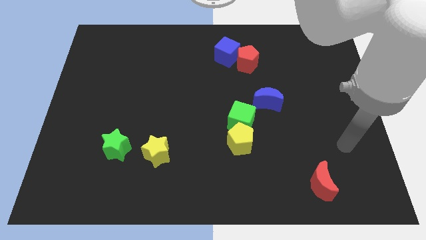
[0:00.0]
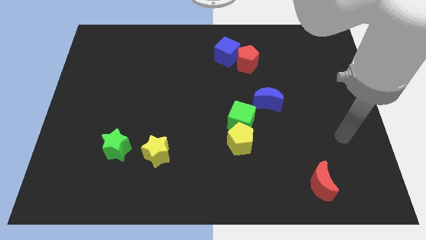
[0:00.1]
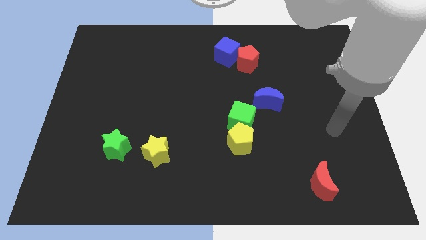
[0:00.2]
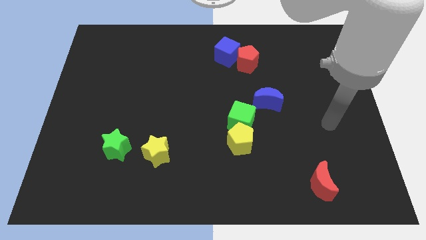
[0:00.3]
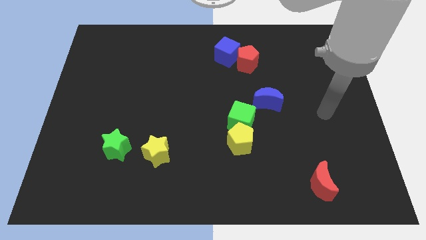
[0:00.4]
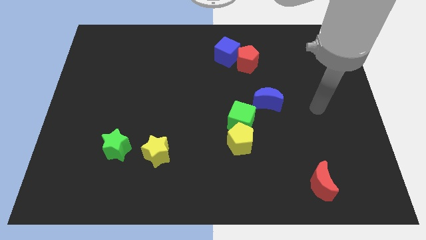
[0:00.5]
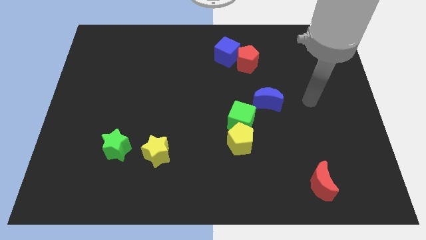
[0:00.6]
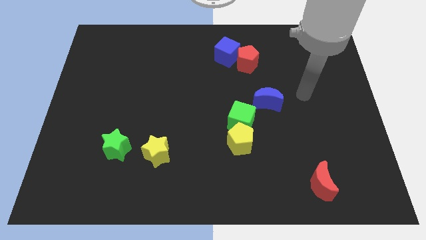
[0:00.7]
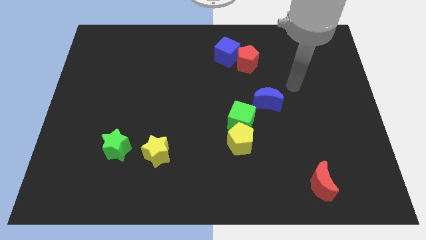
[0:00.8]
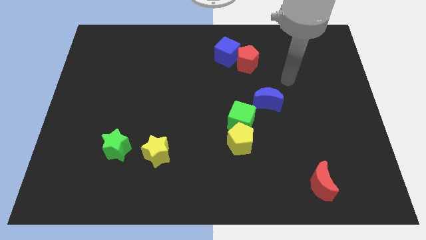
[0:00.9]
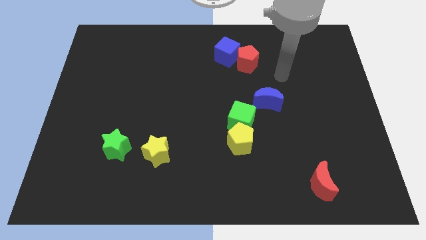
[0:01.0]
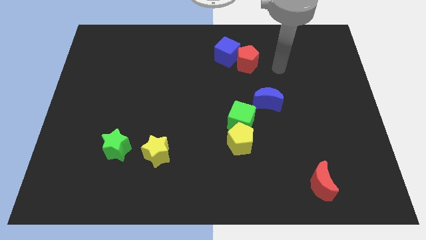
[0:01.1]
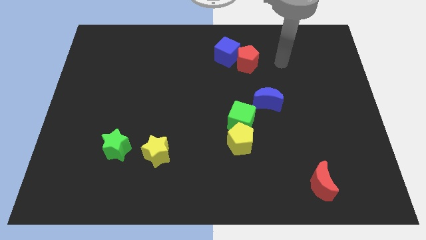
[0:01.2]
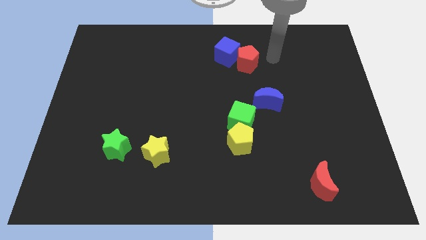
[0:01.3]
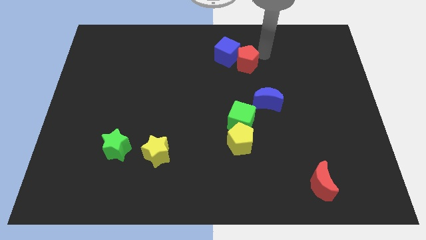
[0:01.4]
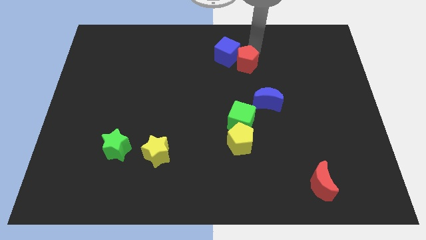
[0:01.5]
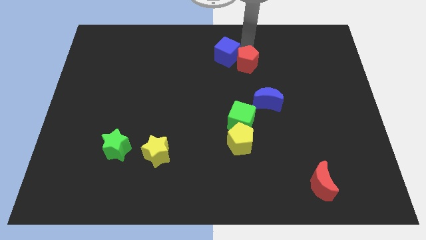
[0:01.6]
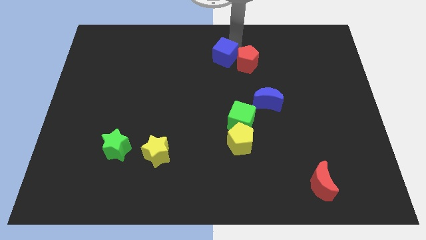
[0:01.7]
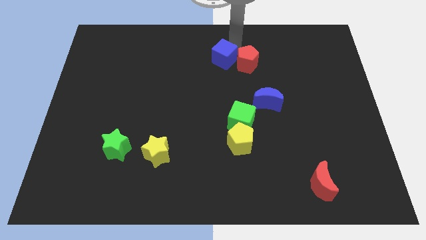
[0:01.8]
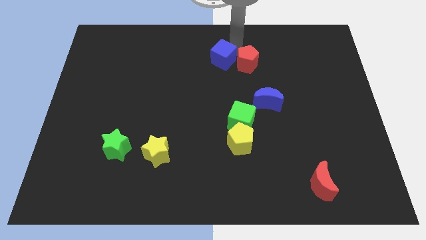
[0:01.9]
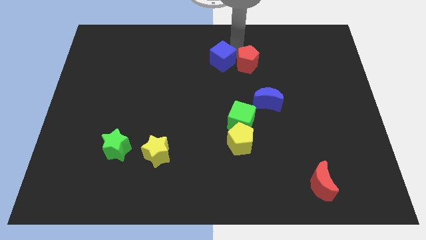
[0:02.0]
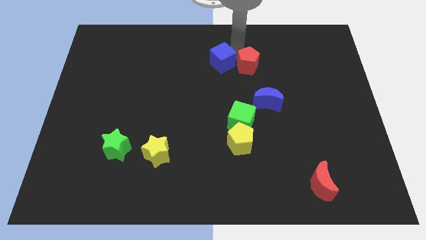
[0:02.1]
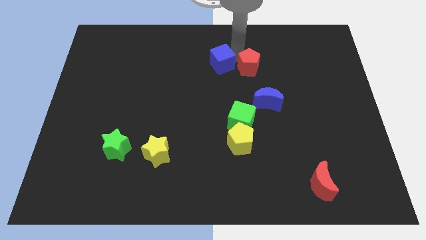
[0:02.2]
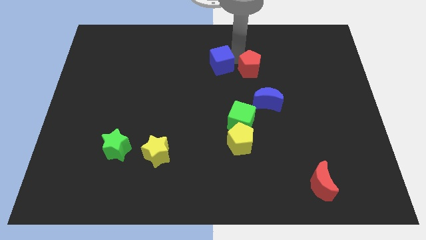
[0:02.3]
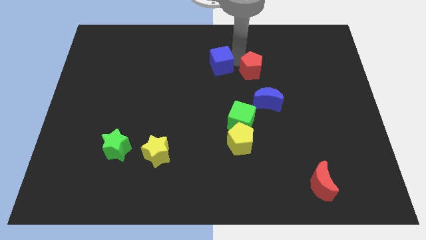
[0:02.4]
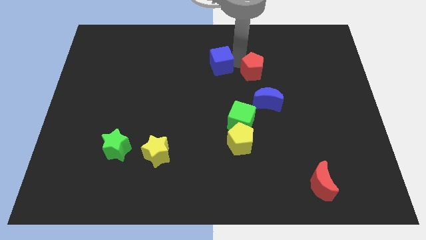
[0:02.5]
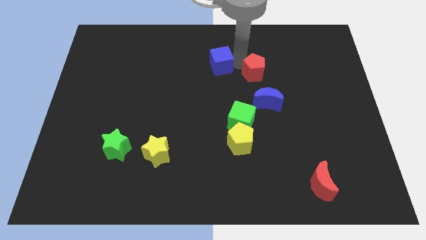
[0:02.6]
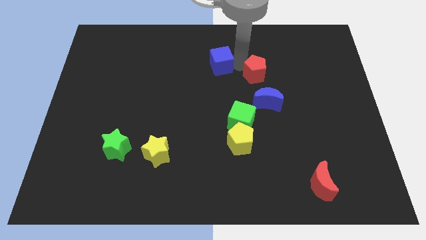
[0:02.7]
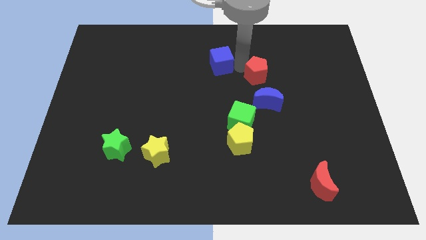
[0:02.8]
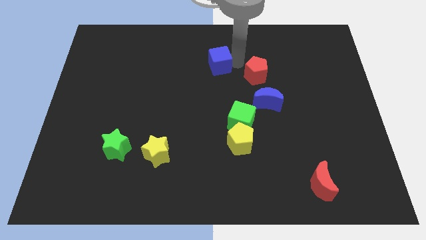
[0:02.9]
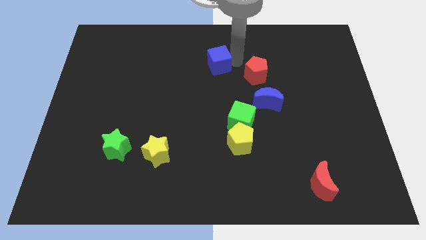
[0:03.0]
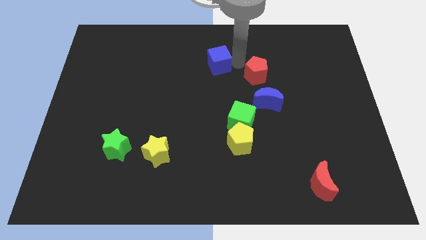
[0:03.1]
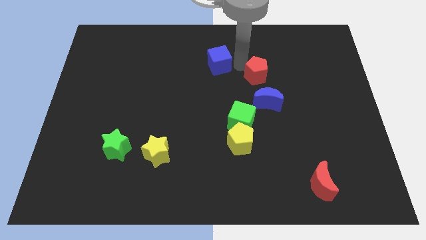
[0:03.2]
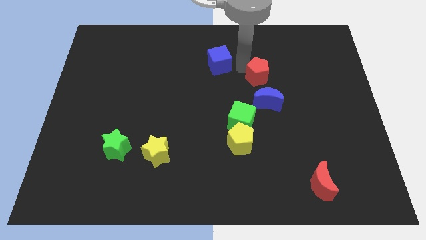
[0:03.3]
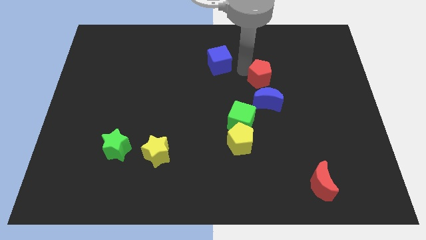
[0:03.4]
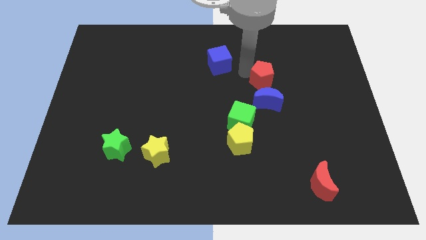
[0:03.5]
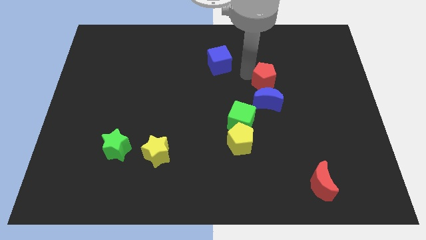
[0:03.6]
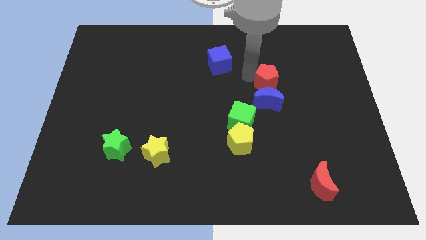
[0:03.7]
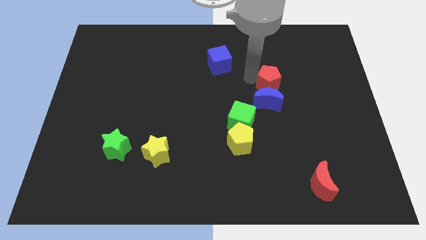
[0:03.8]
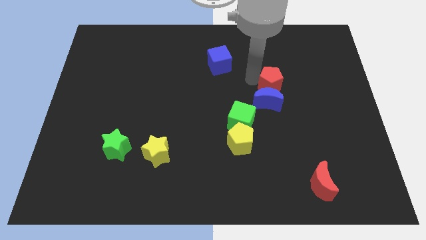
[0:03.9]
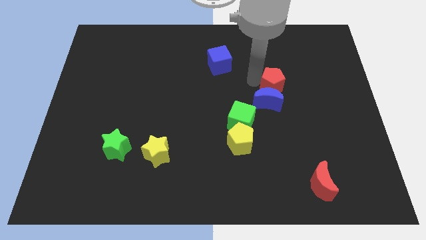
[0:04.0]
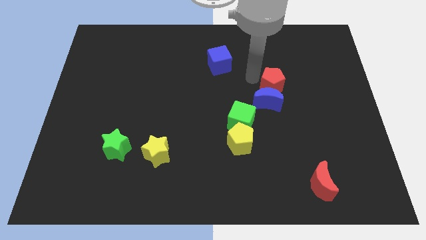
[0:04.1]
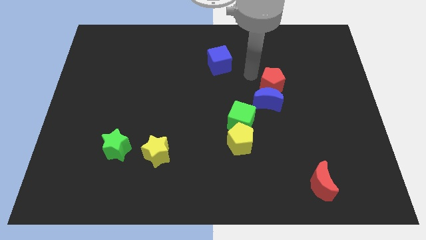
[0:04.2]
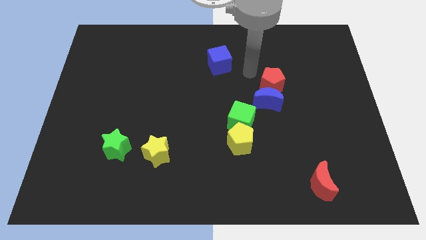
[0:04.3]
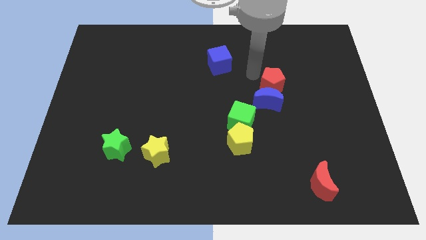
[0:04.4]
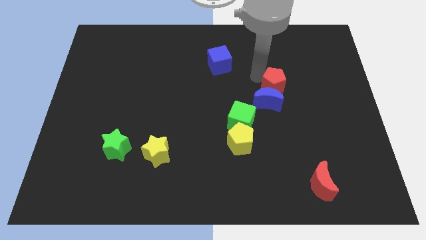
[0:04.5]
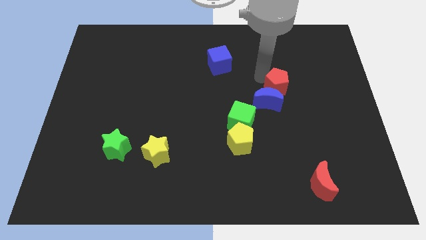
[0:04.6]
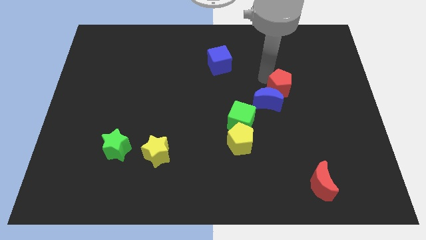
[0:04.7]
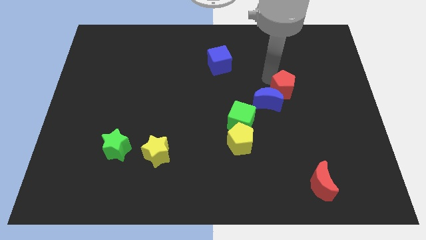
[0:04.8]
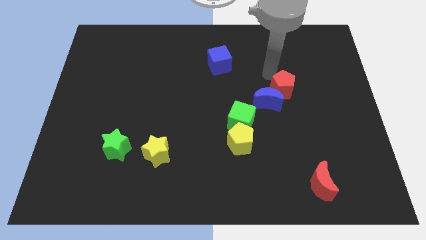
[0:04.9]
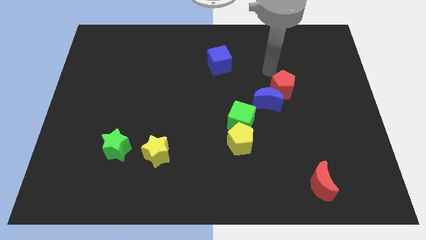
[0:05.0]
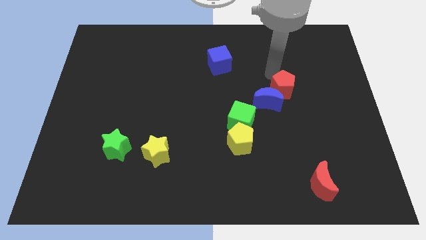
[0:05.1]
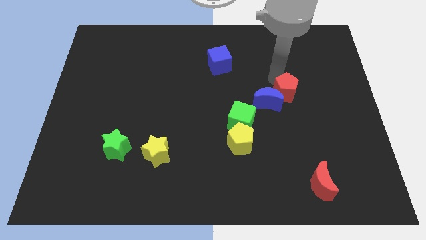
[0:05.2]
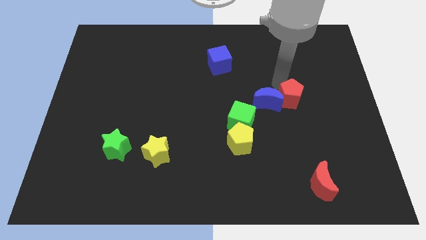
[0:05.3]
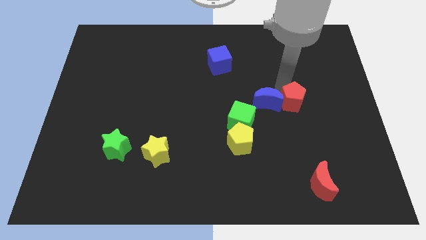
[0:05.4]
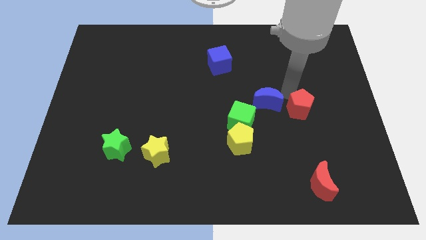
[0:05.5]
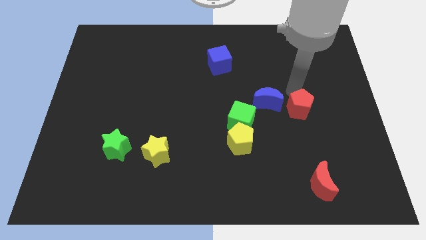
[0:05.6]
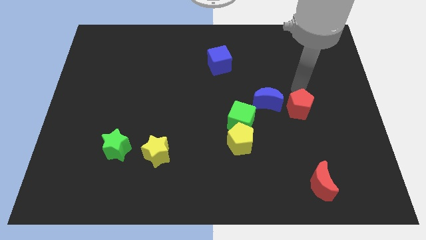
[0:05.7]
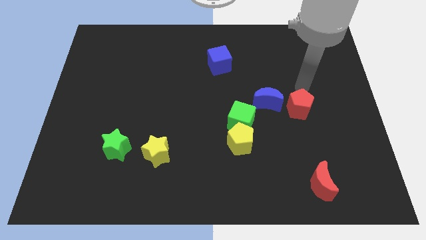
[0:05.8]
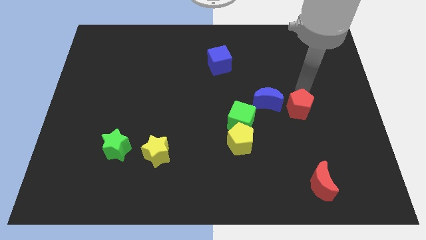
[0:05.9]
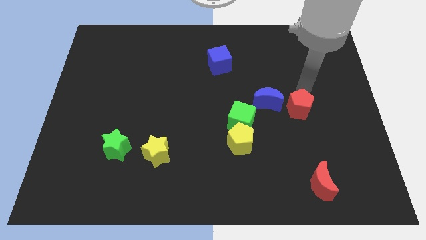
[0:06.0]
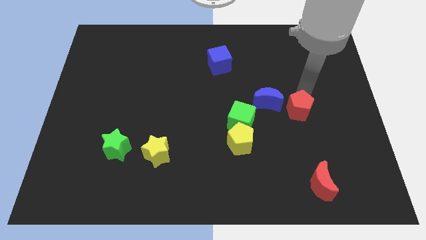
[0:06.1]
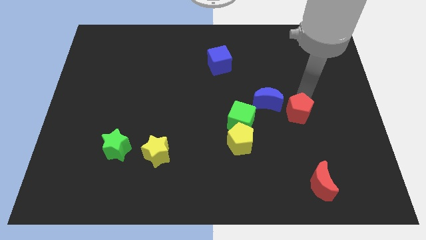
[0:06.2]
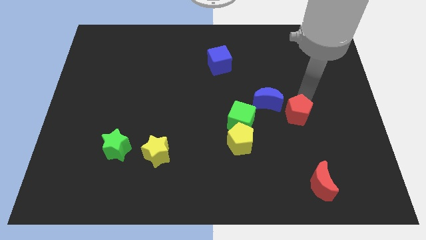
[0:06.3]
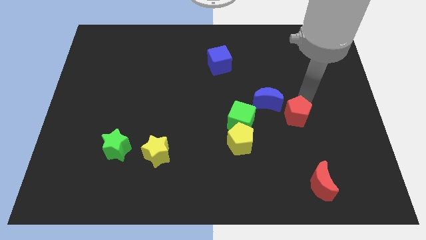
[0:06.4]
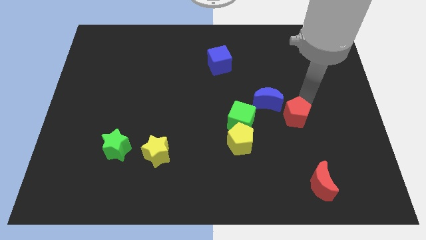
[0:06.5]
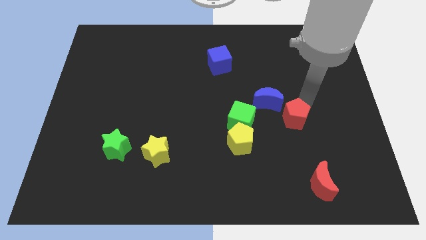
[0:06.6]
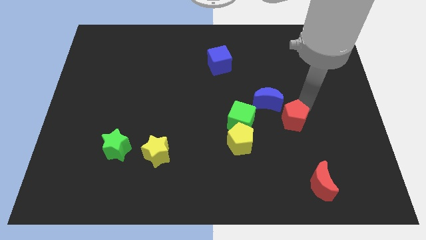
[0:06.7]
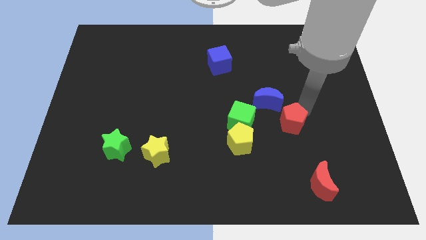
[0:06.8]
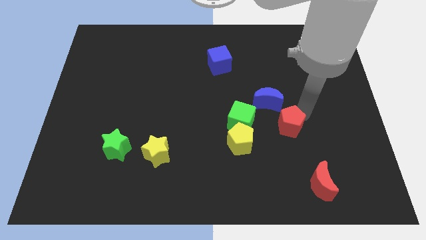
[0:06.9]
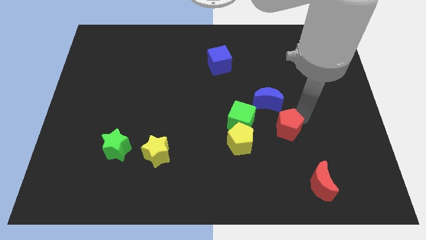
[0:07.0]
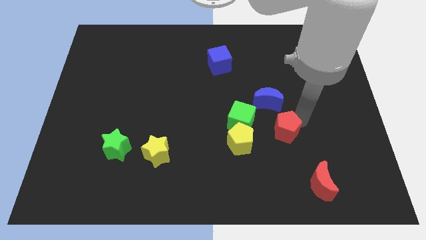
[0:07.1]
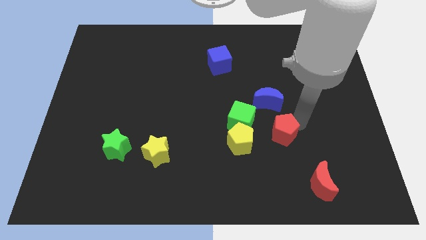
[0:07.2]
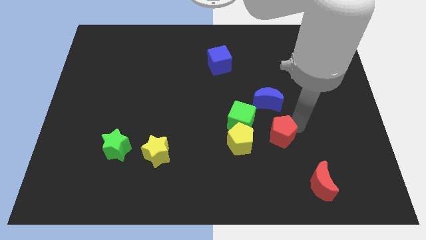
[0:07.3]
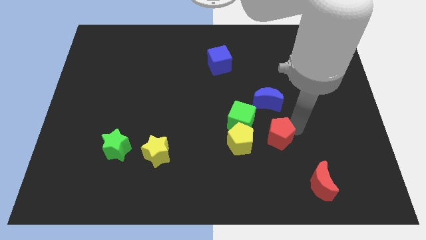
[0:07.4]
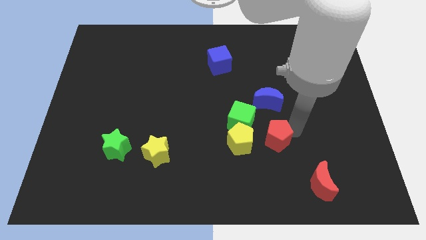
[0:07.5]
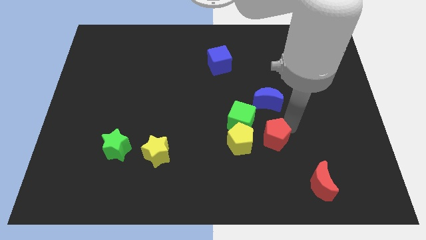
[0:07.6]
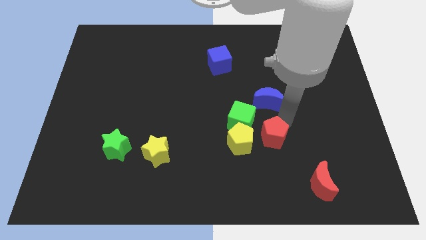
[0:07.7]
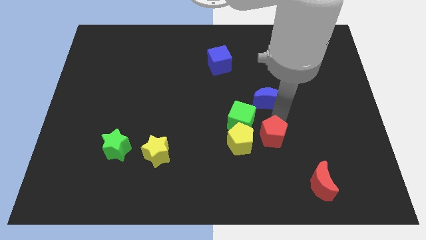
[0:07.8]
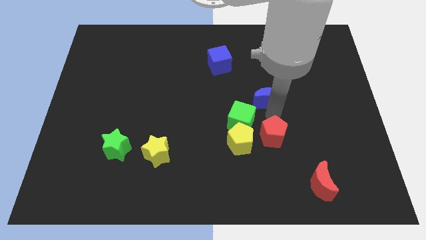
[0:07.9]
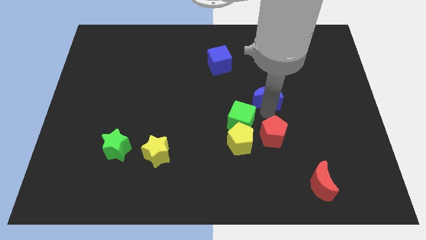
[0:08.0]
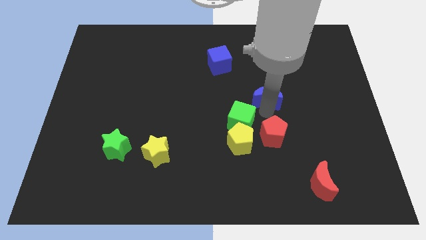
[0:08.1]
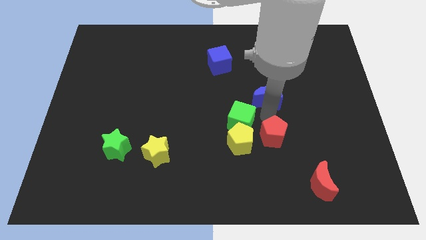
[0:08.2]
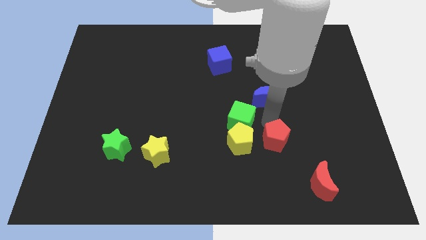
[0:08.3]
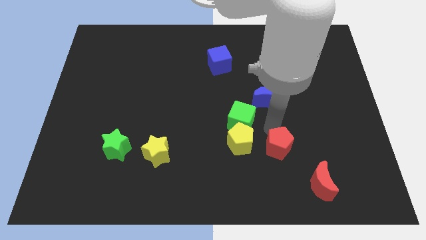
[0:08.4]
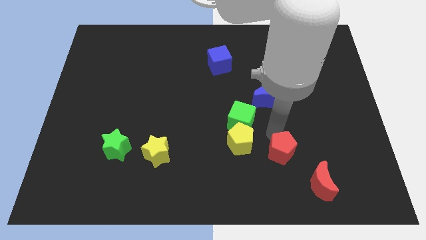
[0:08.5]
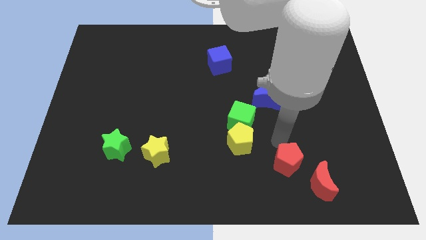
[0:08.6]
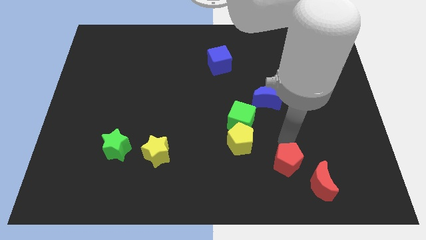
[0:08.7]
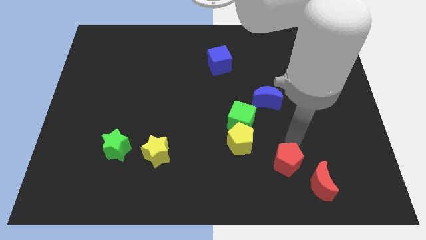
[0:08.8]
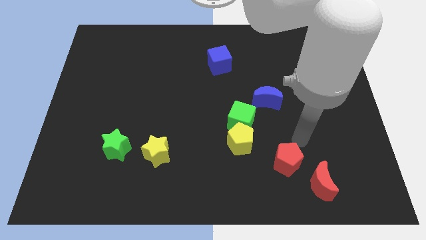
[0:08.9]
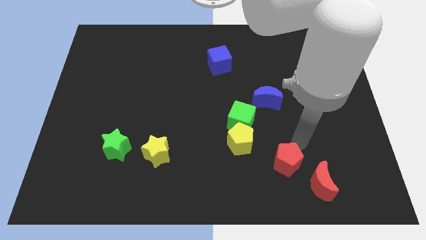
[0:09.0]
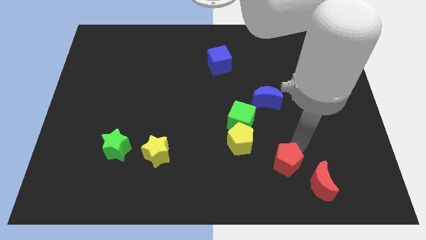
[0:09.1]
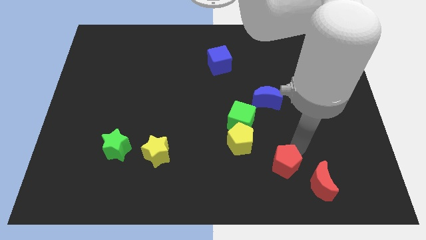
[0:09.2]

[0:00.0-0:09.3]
put the red pentagon just left of the red moon
